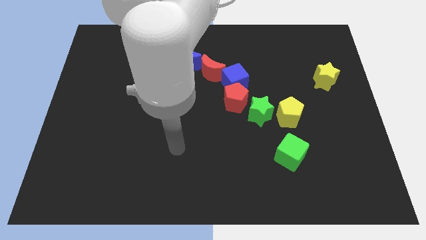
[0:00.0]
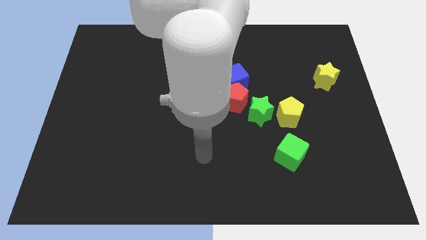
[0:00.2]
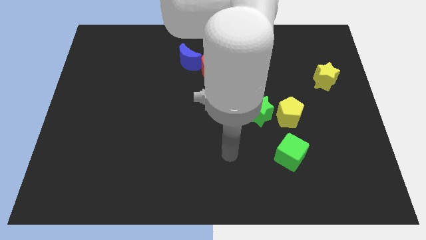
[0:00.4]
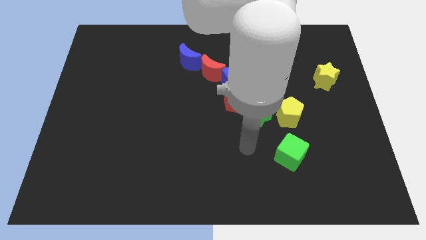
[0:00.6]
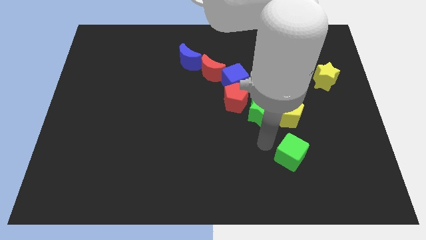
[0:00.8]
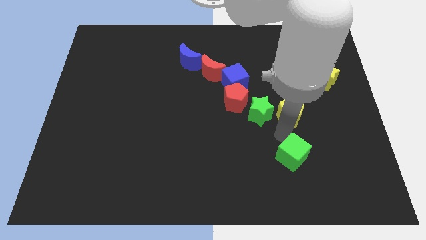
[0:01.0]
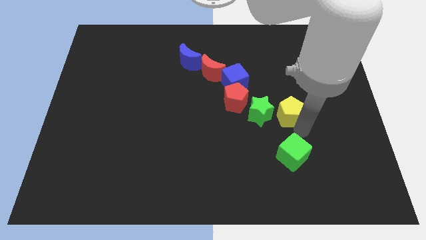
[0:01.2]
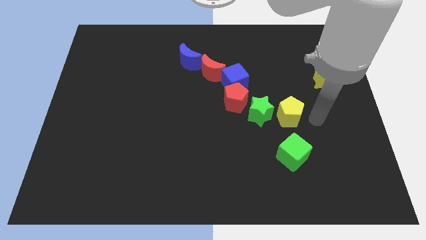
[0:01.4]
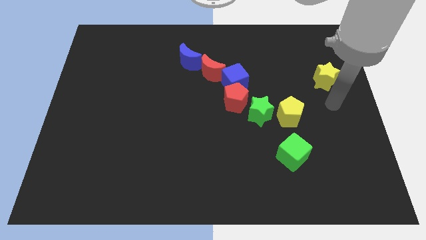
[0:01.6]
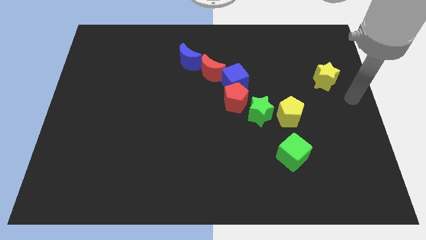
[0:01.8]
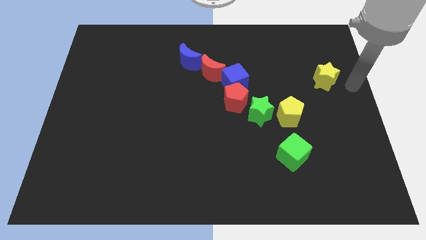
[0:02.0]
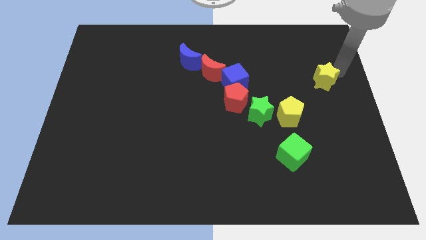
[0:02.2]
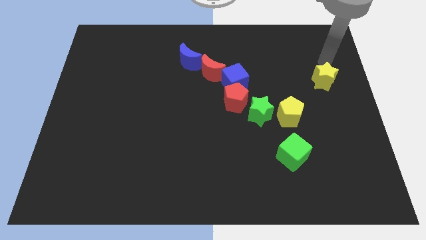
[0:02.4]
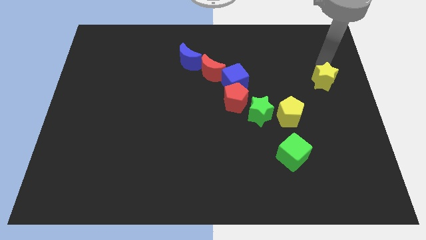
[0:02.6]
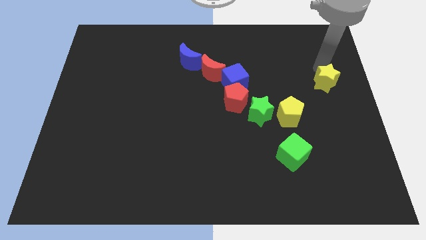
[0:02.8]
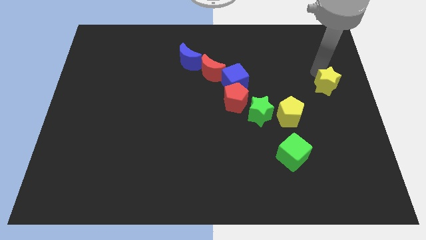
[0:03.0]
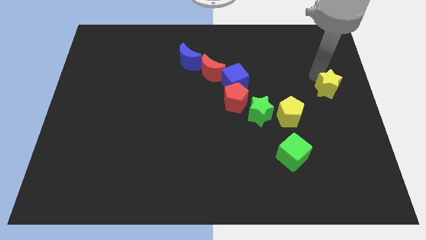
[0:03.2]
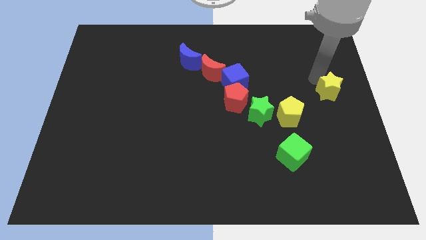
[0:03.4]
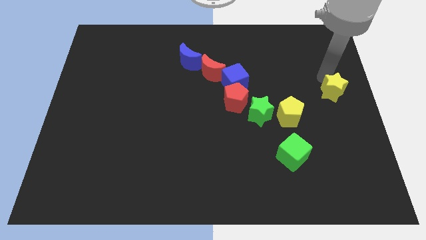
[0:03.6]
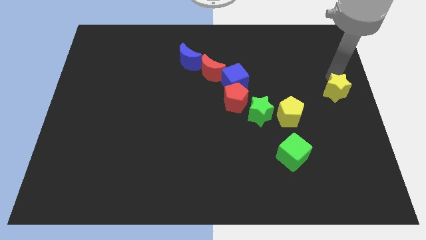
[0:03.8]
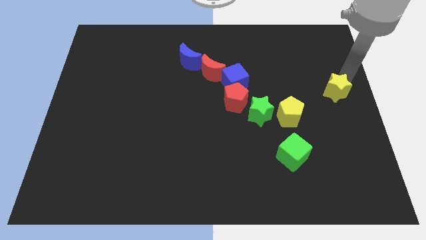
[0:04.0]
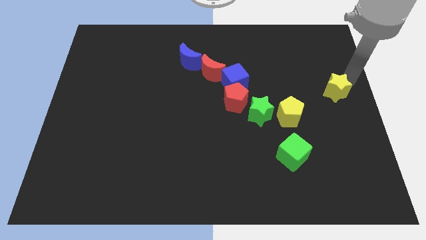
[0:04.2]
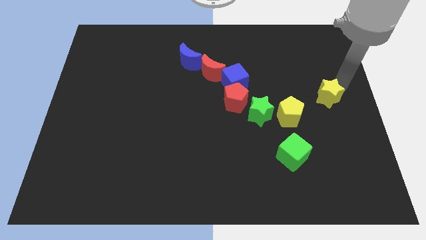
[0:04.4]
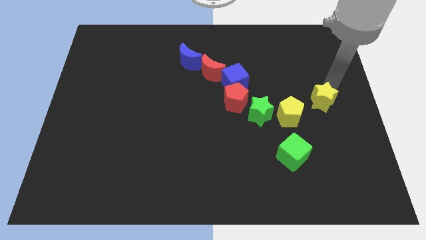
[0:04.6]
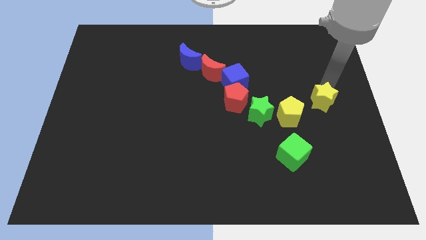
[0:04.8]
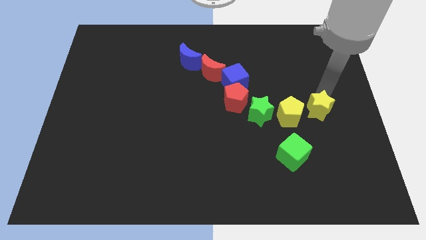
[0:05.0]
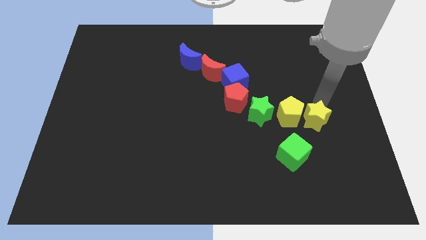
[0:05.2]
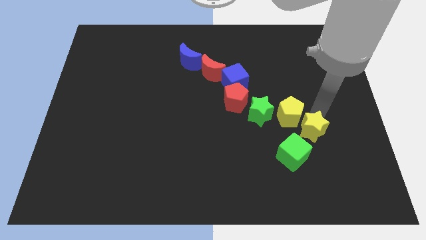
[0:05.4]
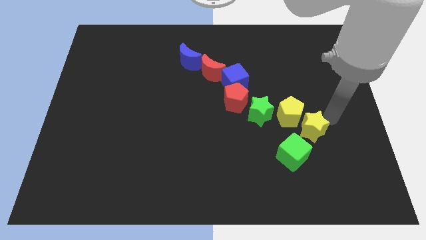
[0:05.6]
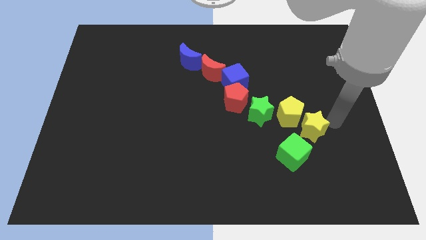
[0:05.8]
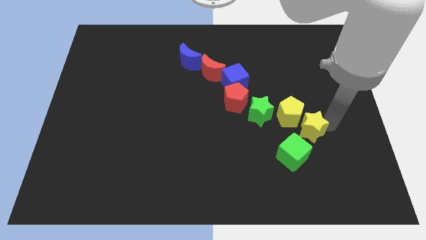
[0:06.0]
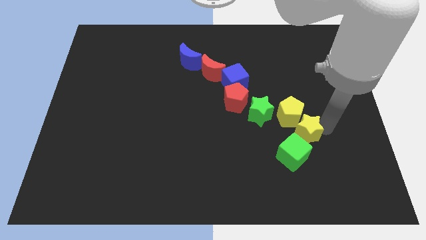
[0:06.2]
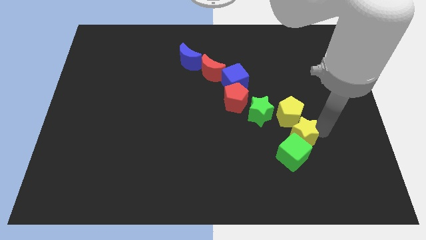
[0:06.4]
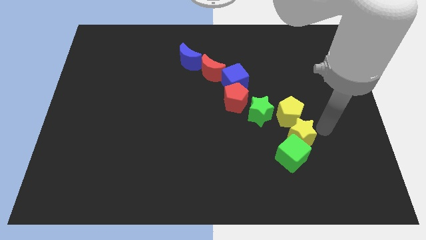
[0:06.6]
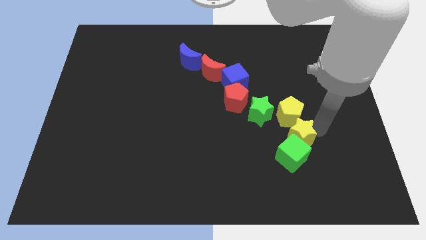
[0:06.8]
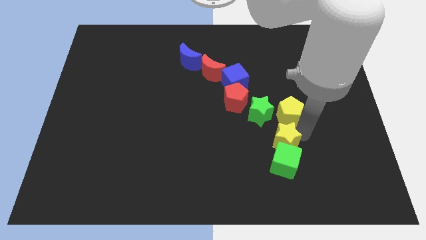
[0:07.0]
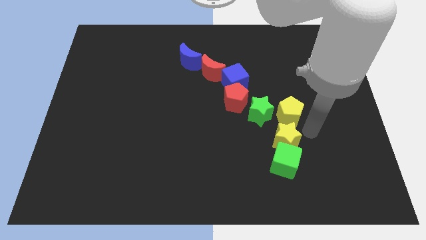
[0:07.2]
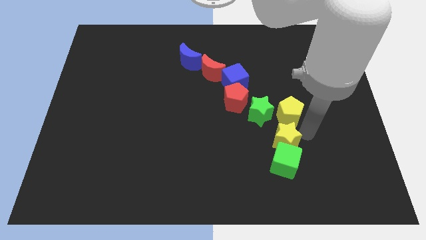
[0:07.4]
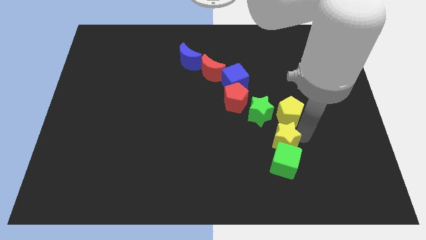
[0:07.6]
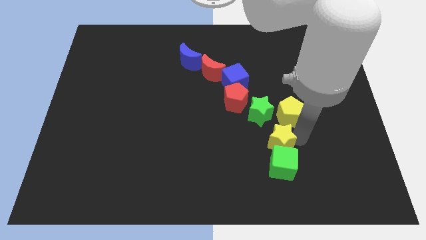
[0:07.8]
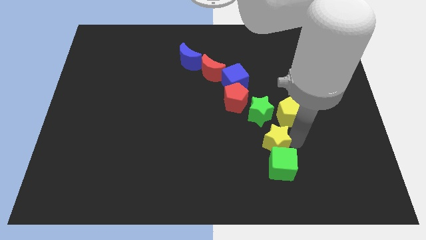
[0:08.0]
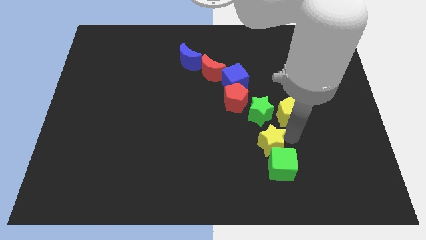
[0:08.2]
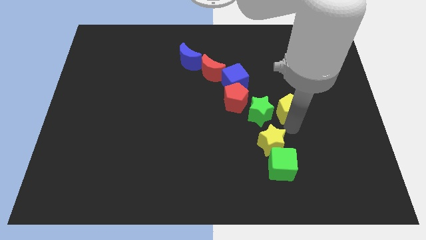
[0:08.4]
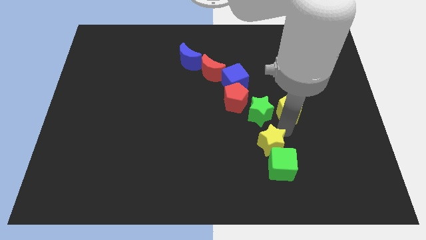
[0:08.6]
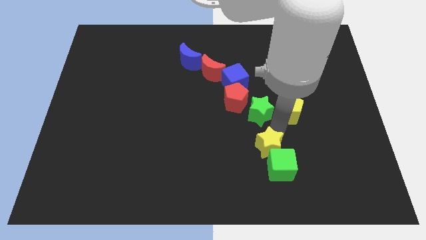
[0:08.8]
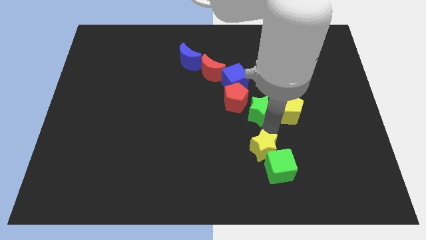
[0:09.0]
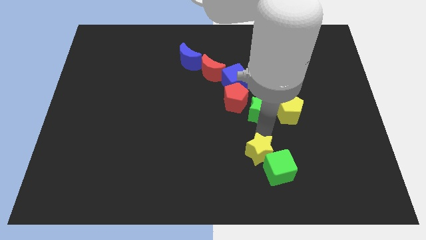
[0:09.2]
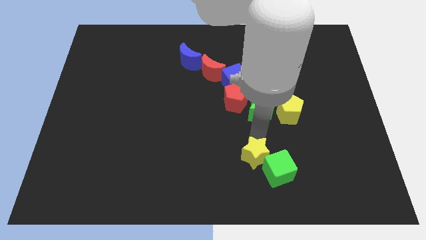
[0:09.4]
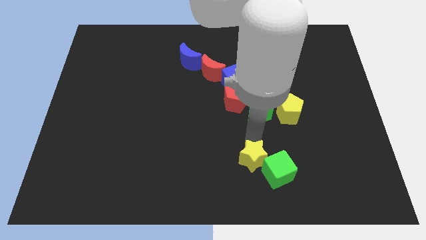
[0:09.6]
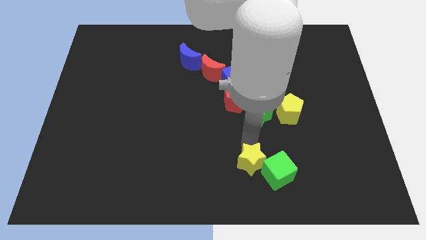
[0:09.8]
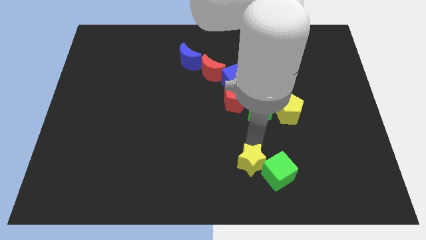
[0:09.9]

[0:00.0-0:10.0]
slide the yellow star to the bottom side

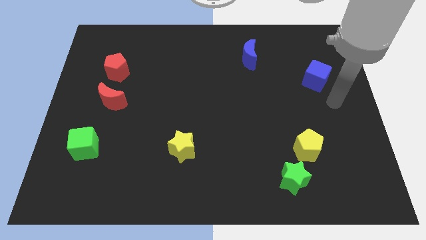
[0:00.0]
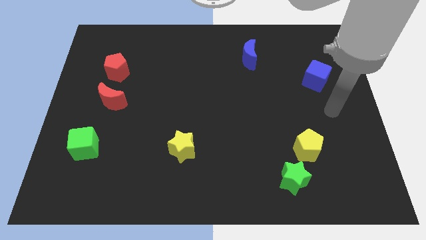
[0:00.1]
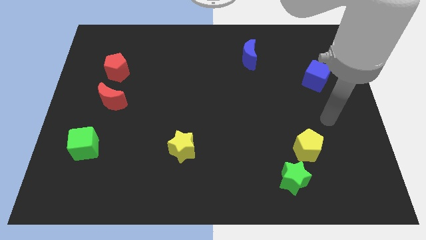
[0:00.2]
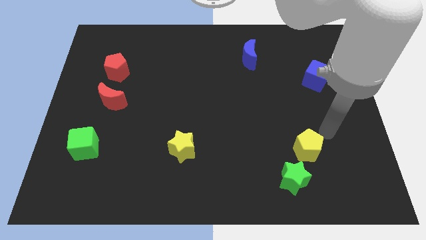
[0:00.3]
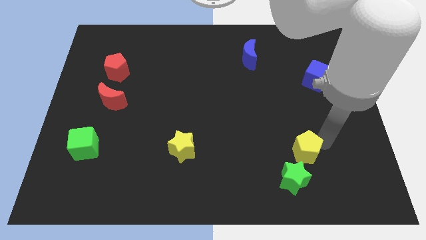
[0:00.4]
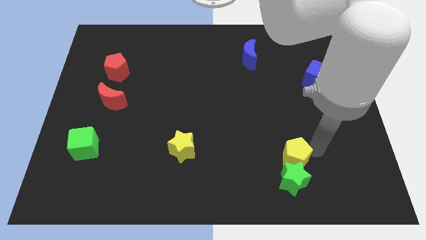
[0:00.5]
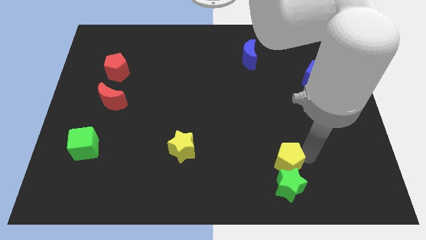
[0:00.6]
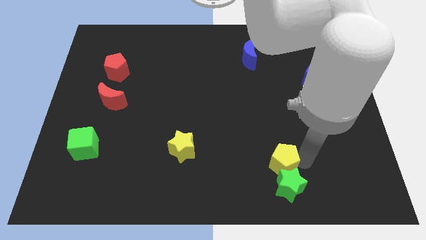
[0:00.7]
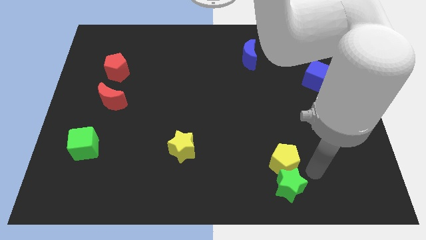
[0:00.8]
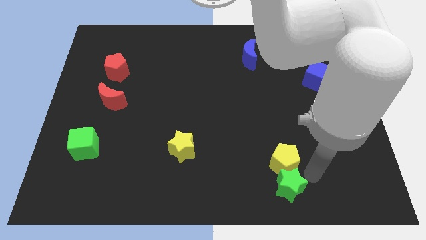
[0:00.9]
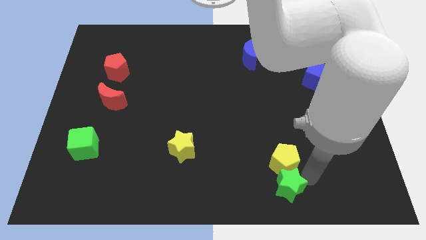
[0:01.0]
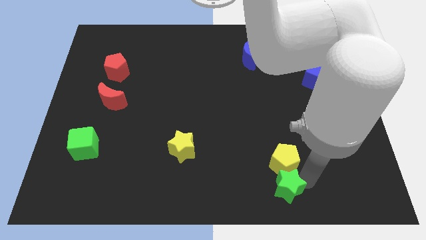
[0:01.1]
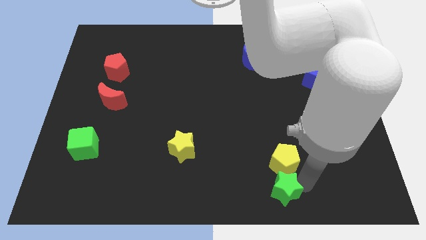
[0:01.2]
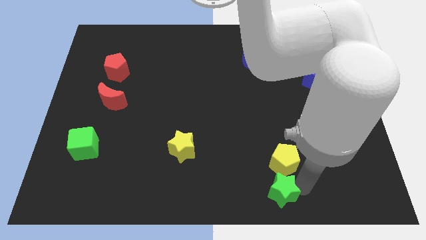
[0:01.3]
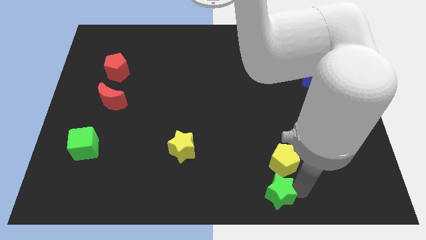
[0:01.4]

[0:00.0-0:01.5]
move the green star to the bottom side
